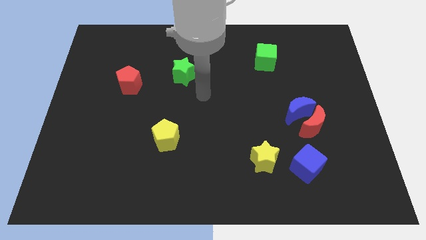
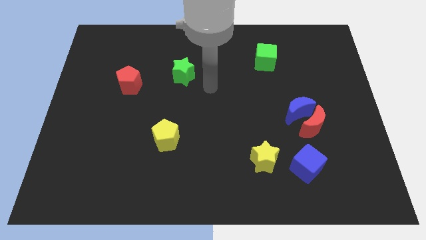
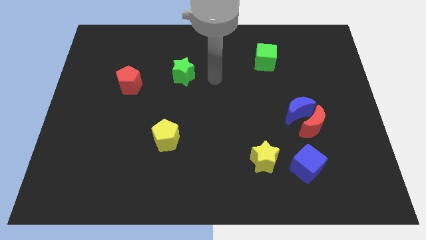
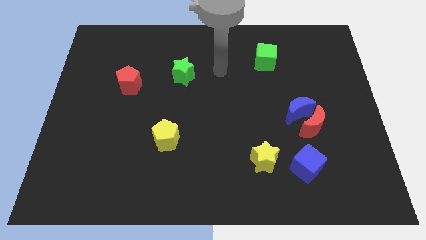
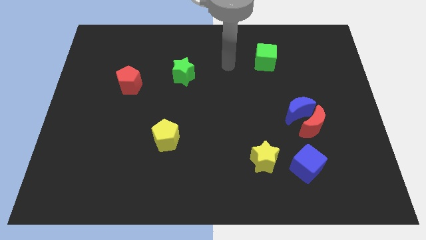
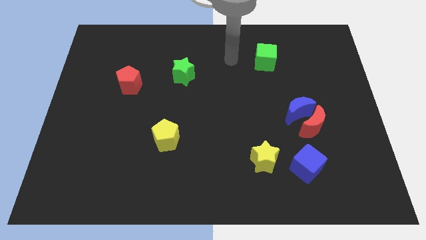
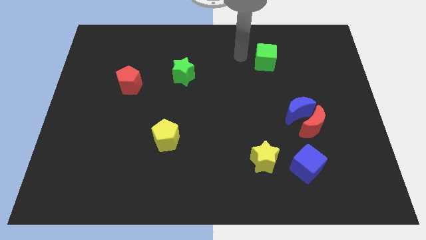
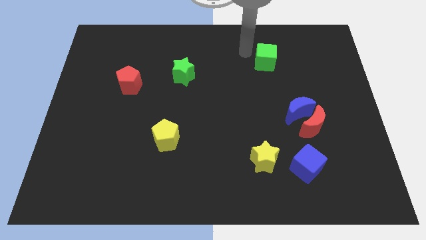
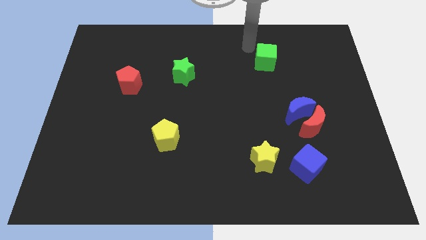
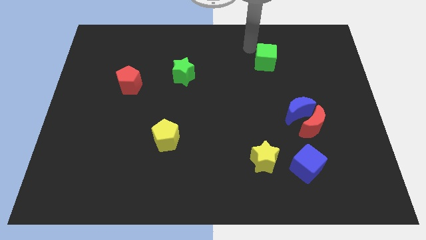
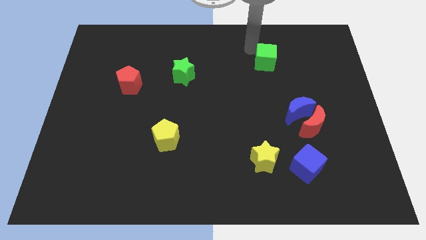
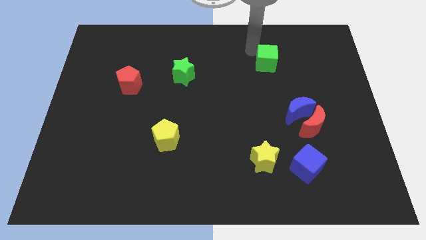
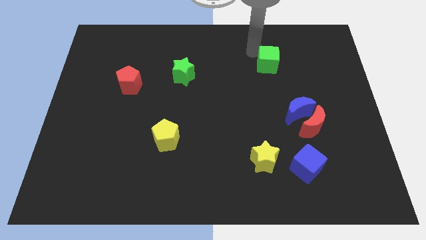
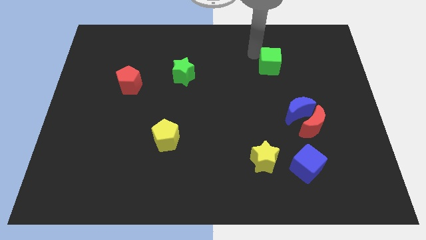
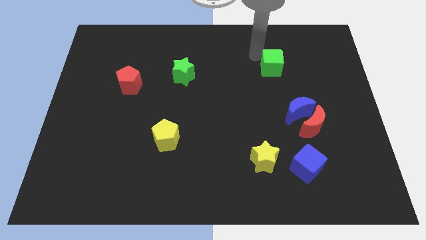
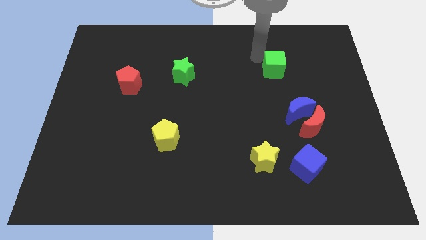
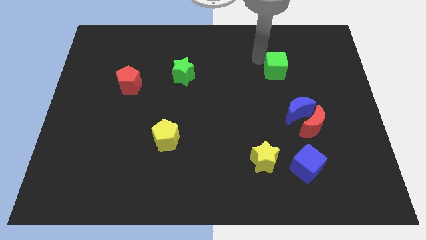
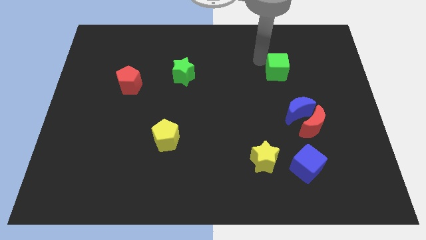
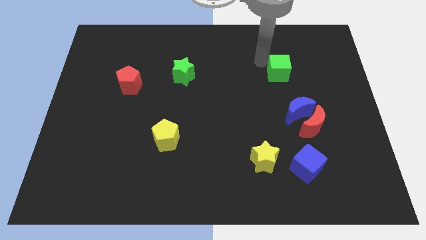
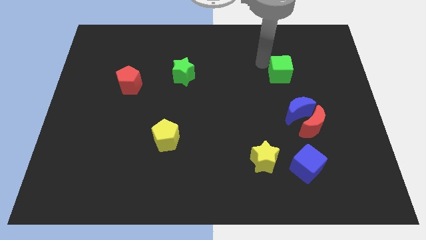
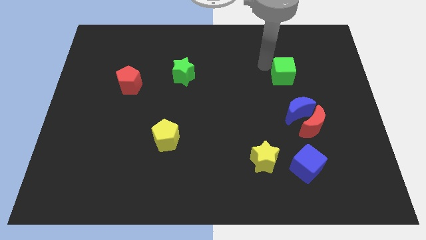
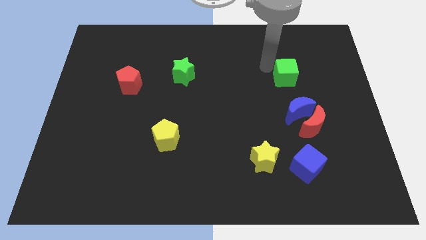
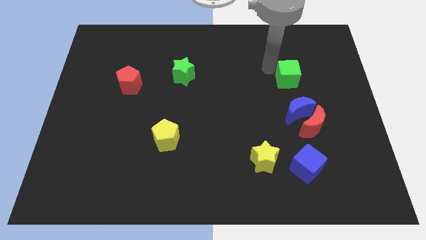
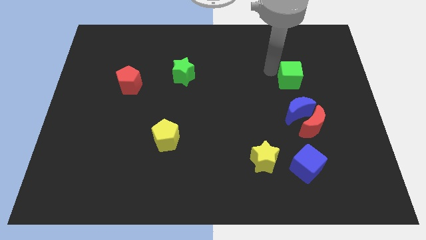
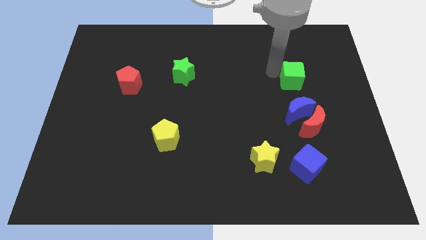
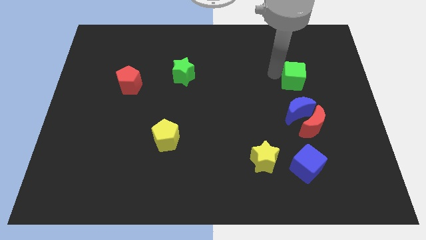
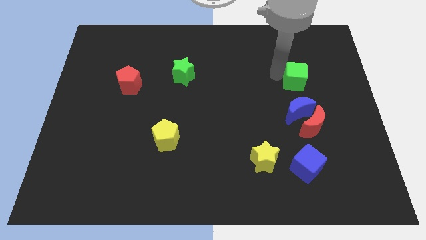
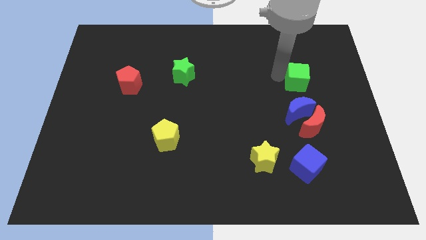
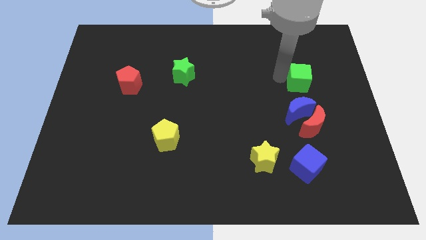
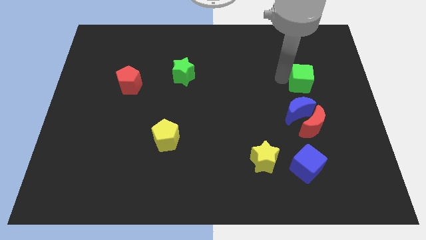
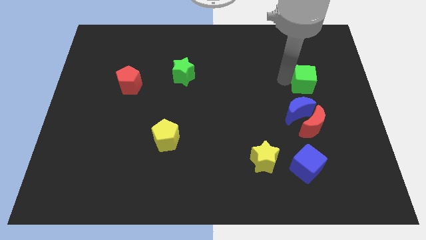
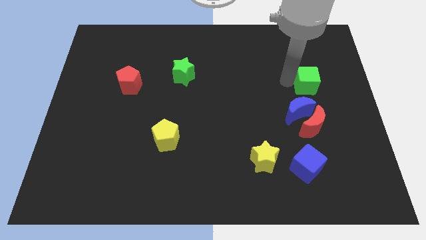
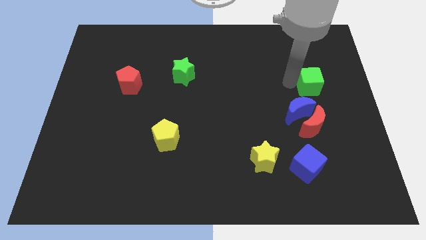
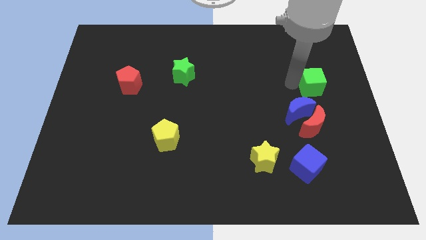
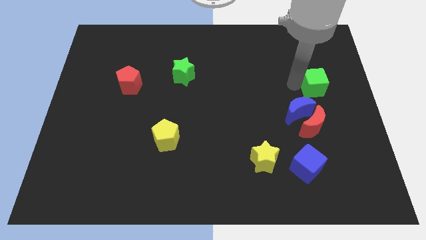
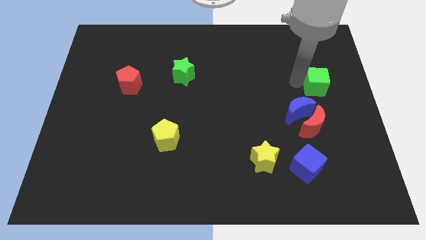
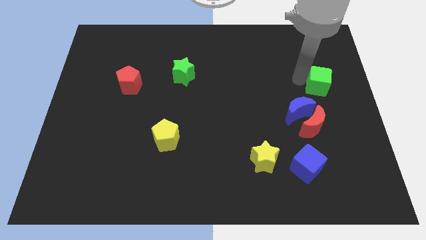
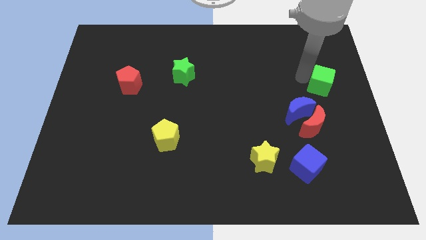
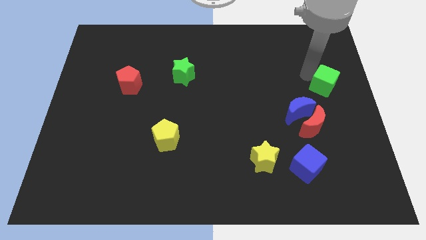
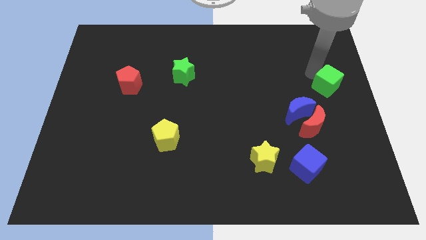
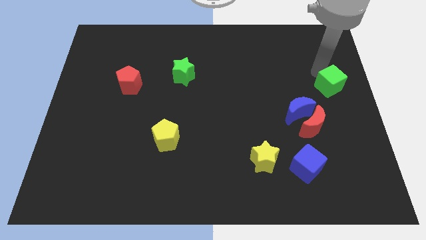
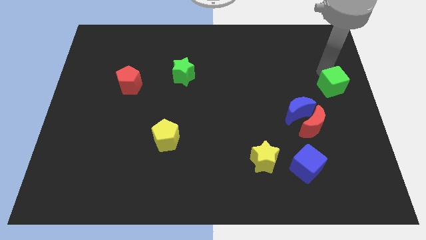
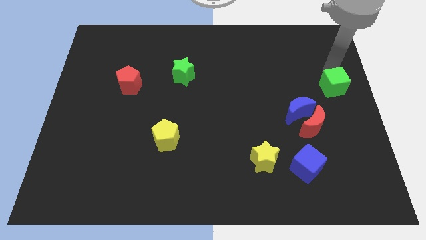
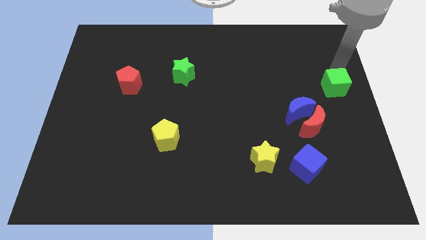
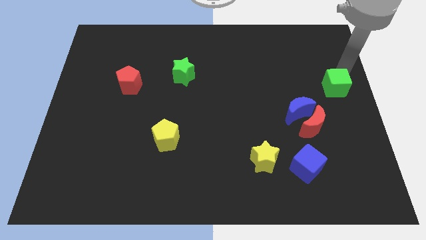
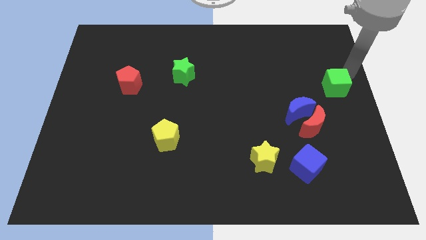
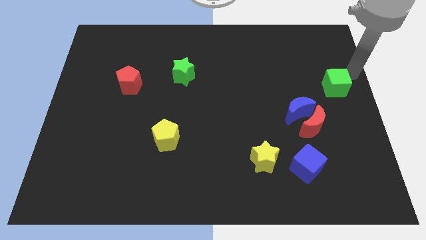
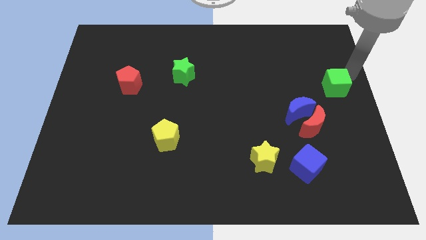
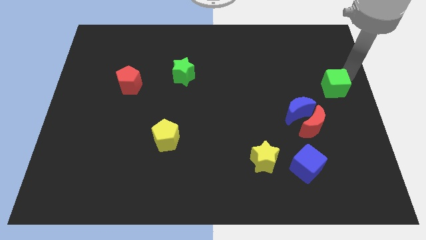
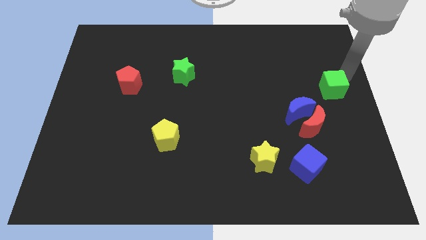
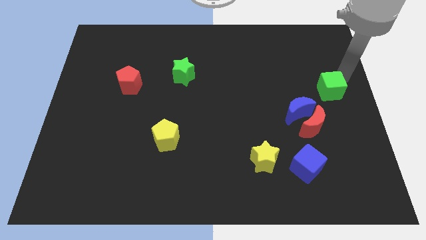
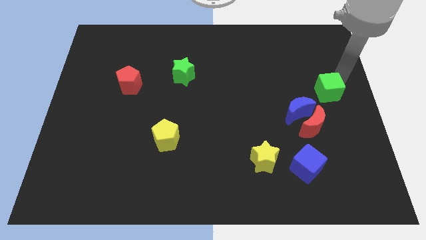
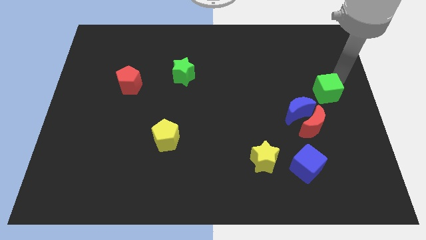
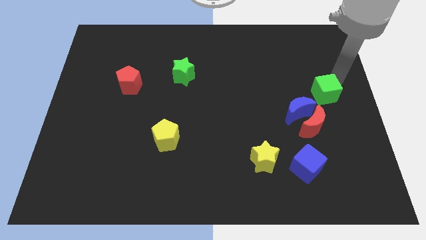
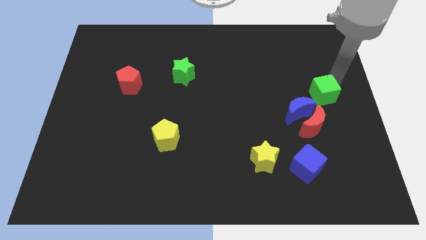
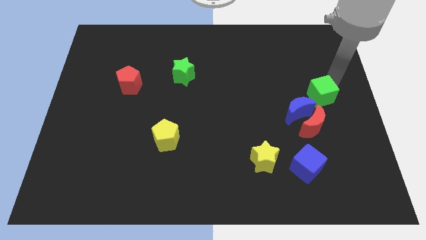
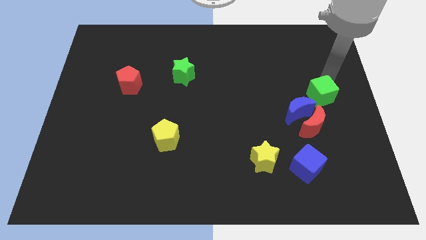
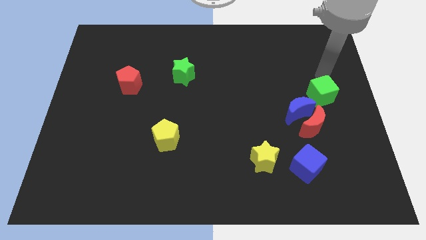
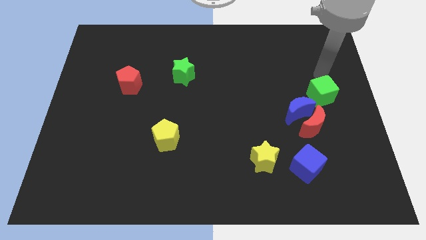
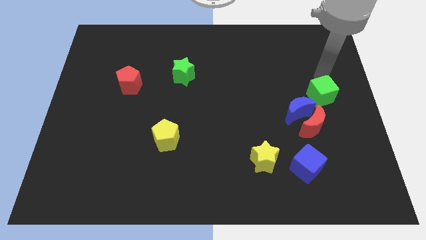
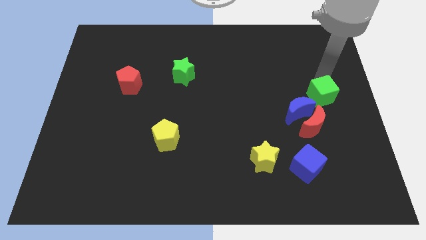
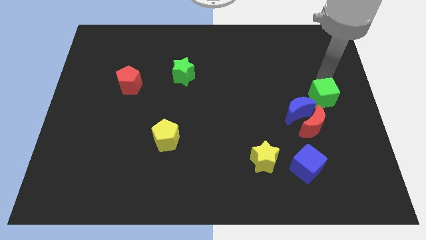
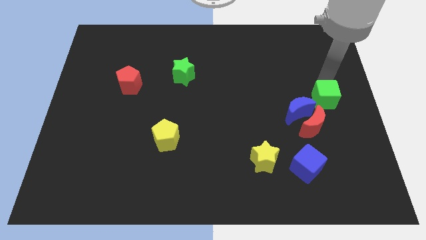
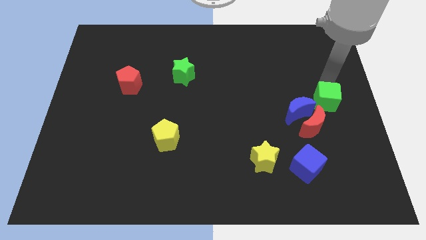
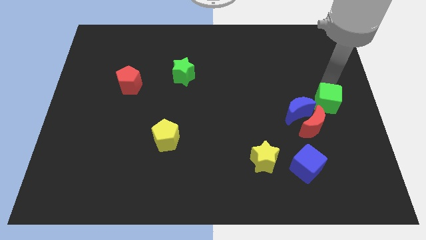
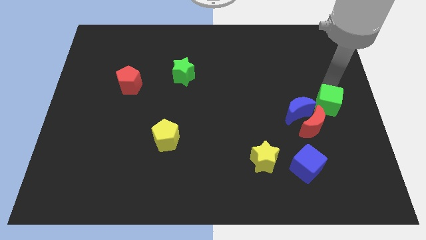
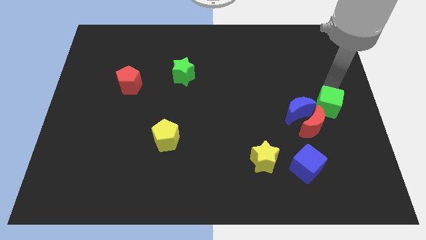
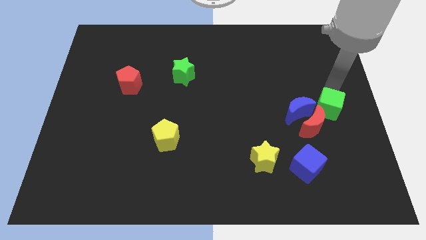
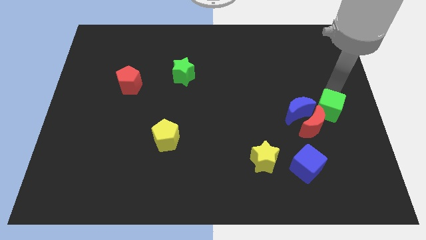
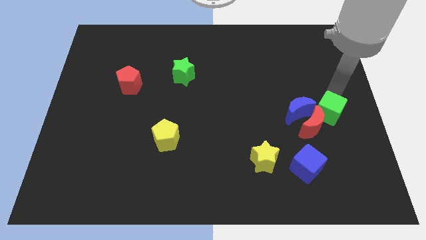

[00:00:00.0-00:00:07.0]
push the green cube towards the red moon
